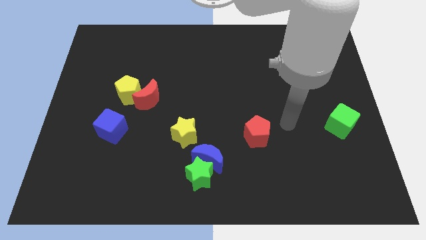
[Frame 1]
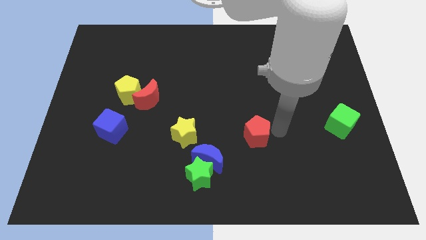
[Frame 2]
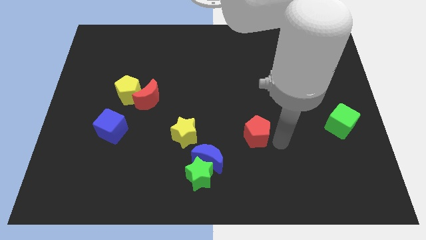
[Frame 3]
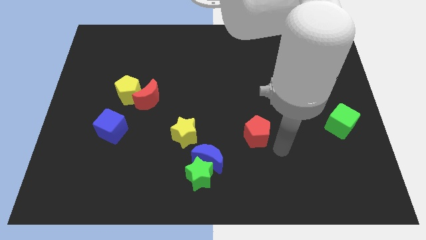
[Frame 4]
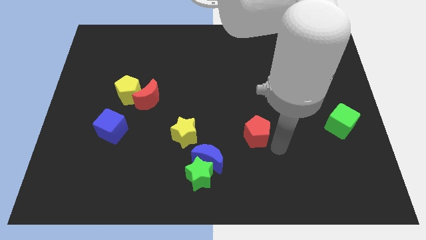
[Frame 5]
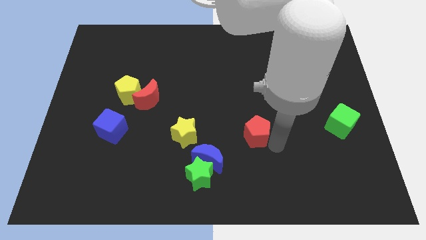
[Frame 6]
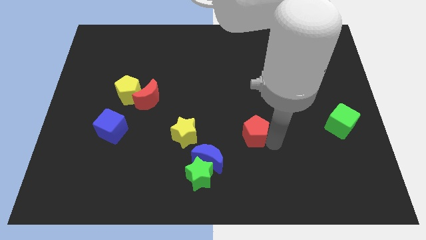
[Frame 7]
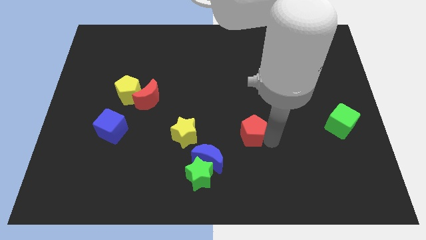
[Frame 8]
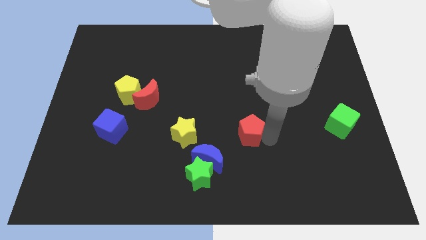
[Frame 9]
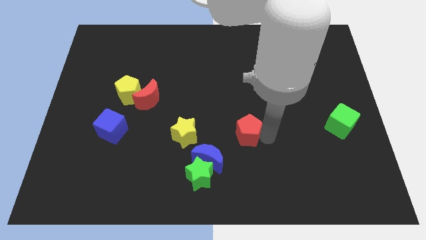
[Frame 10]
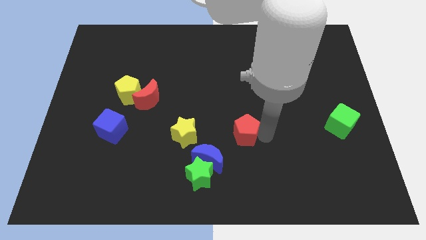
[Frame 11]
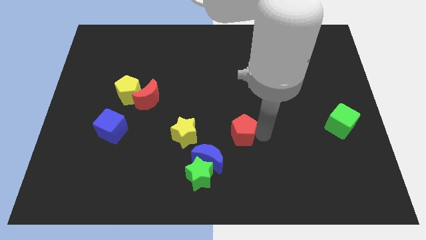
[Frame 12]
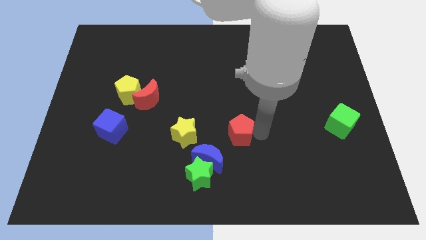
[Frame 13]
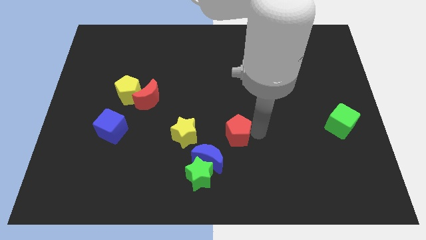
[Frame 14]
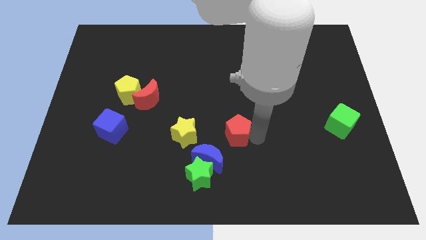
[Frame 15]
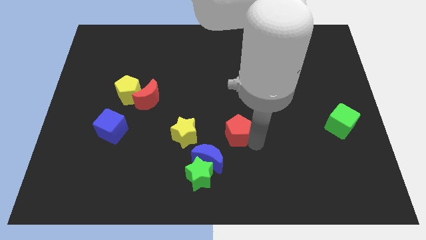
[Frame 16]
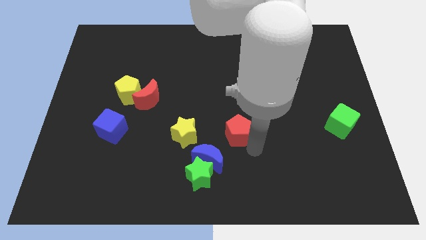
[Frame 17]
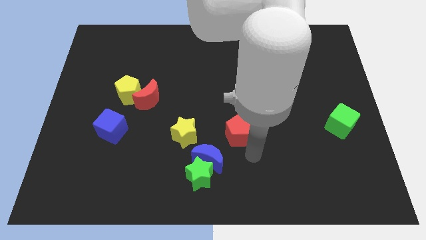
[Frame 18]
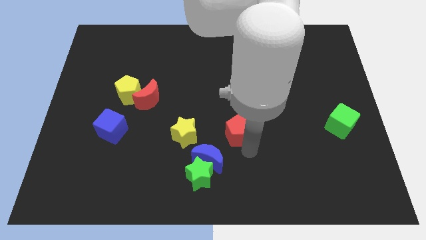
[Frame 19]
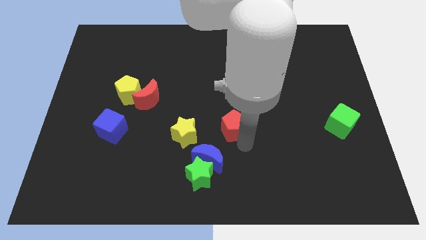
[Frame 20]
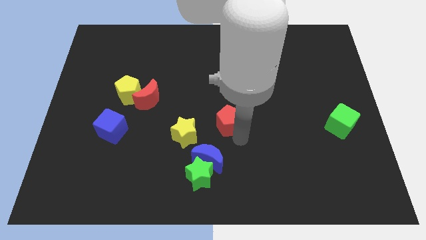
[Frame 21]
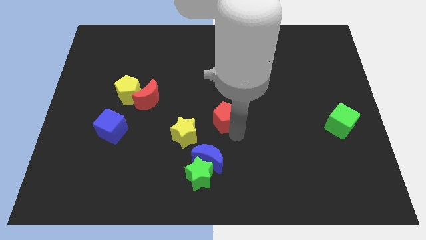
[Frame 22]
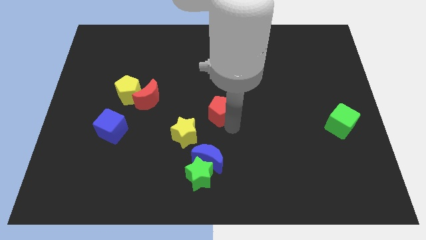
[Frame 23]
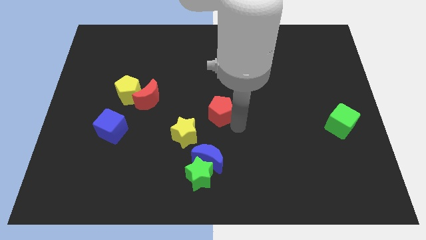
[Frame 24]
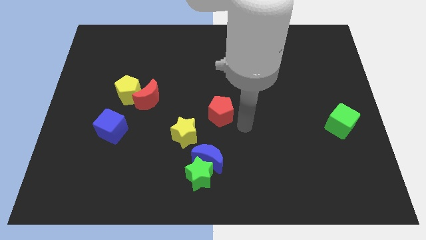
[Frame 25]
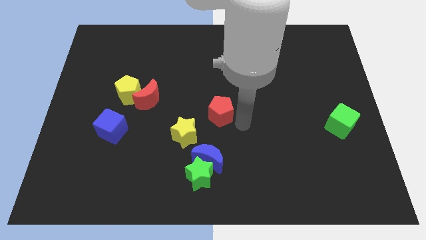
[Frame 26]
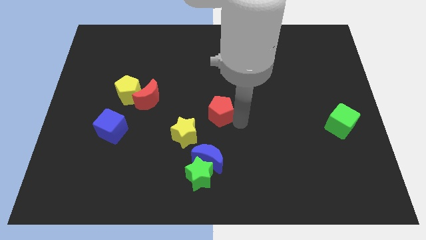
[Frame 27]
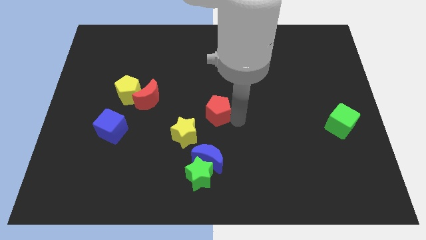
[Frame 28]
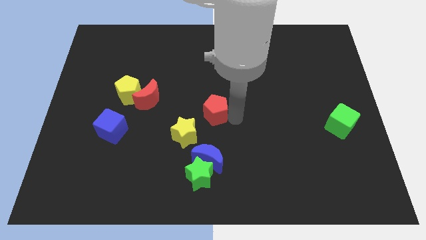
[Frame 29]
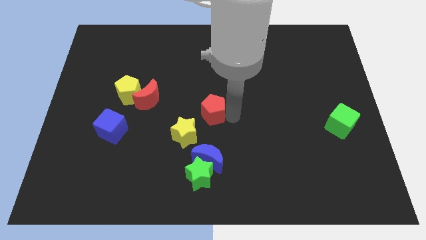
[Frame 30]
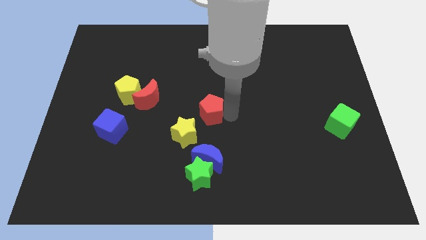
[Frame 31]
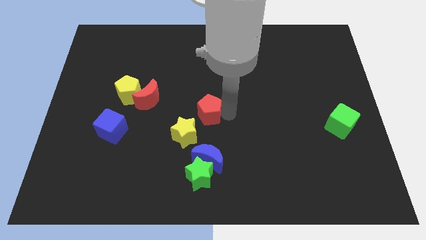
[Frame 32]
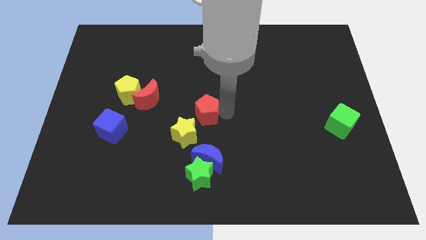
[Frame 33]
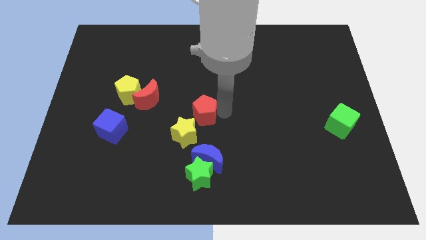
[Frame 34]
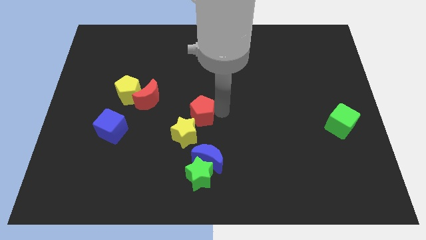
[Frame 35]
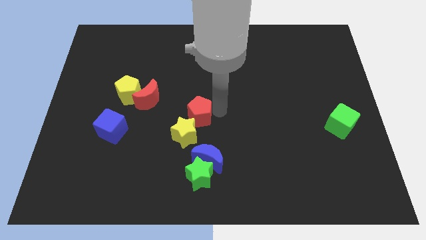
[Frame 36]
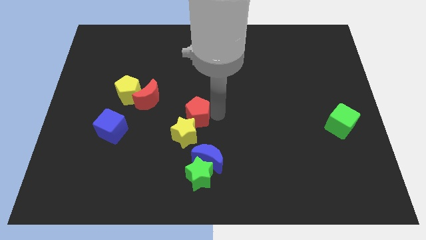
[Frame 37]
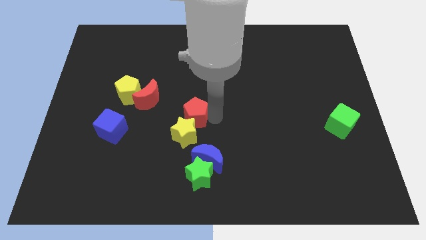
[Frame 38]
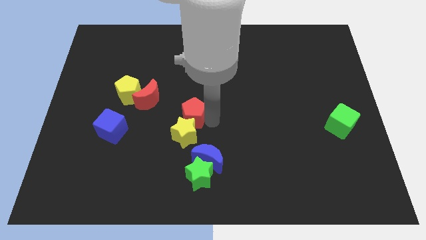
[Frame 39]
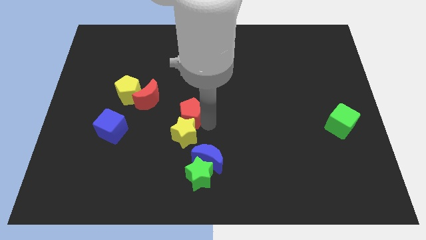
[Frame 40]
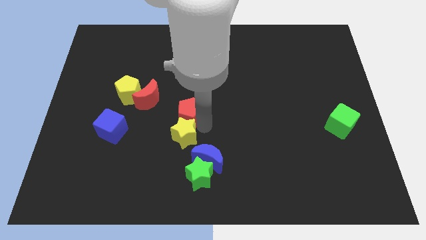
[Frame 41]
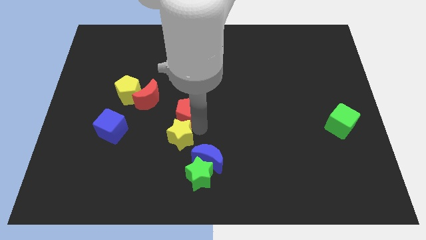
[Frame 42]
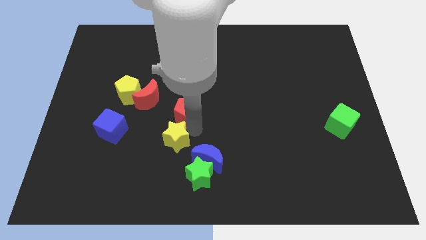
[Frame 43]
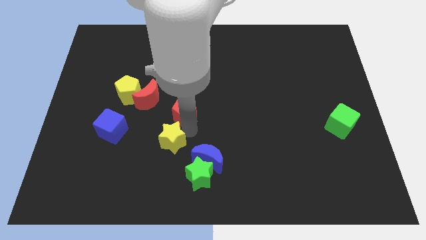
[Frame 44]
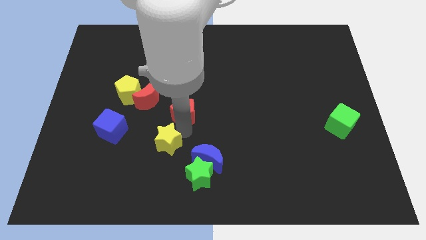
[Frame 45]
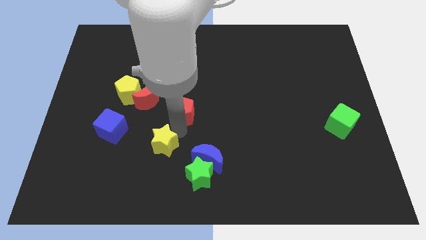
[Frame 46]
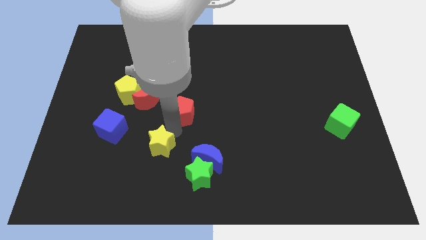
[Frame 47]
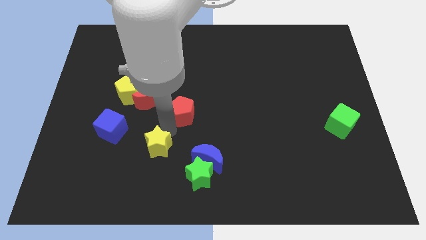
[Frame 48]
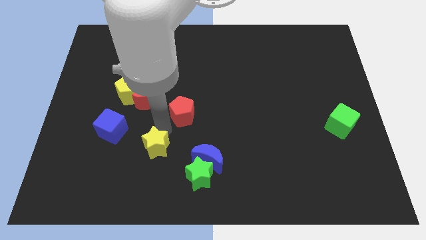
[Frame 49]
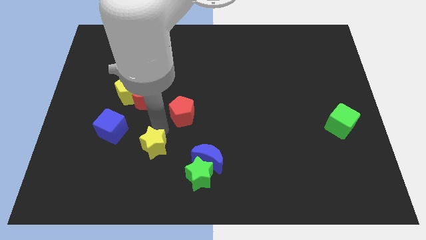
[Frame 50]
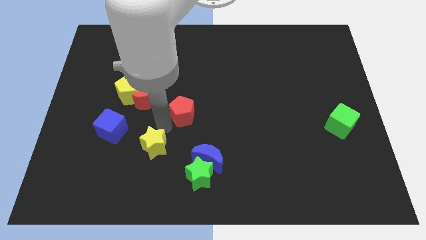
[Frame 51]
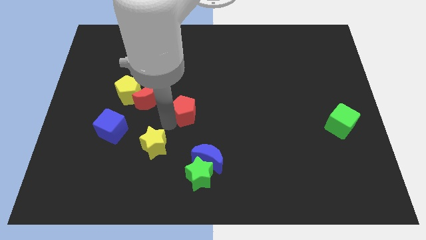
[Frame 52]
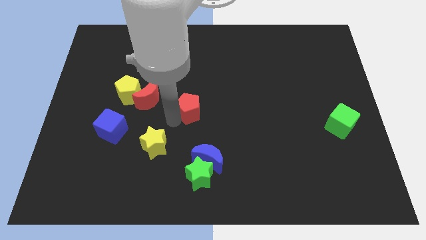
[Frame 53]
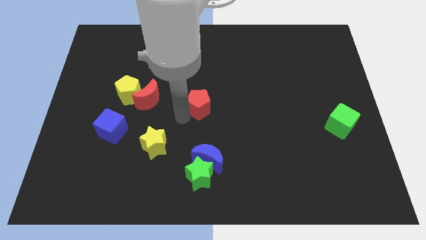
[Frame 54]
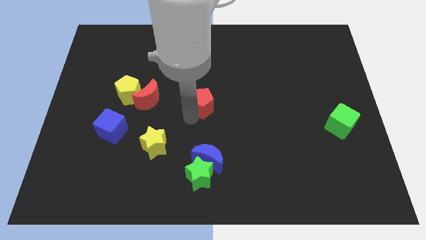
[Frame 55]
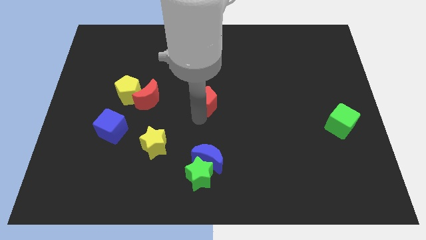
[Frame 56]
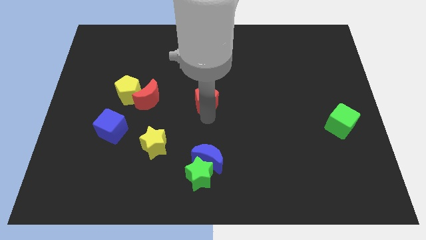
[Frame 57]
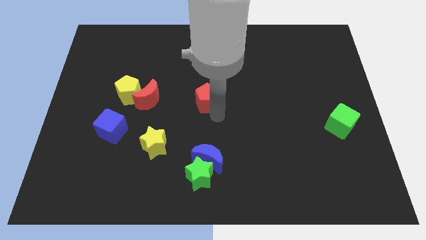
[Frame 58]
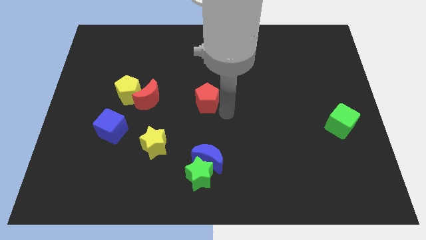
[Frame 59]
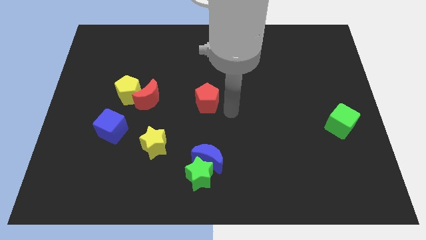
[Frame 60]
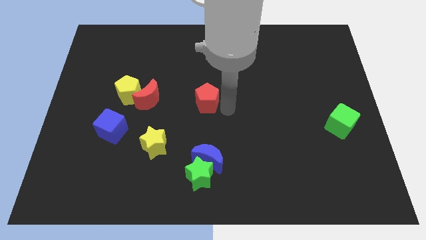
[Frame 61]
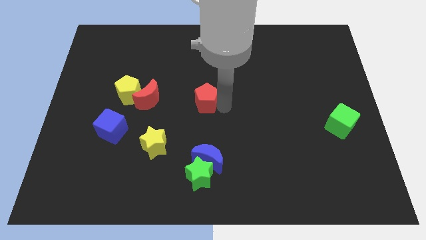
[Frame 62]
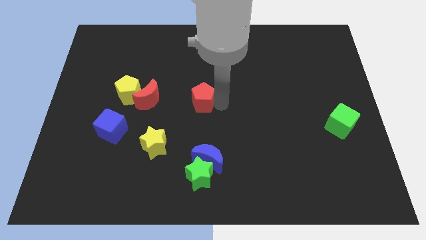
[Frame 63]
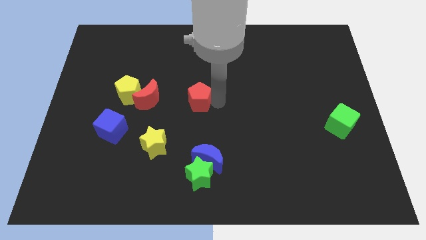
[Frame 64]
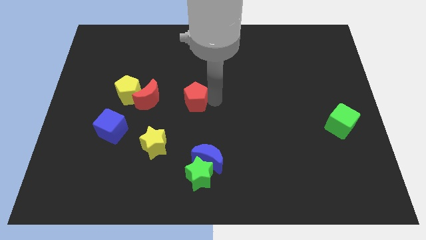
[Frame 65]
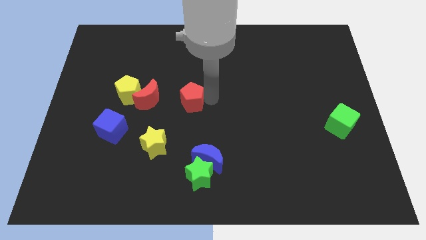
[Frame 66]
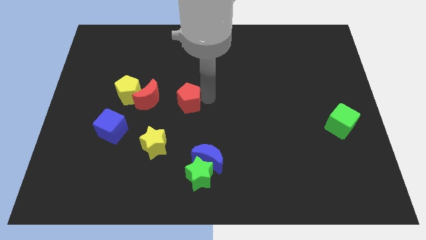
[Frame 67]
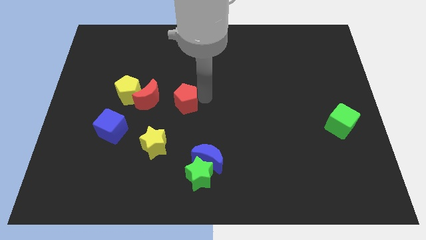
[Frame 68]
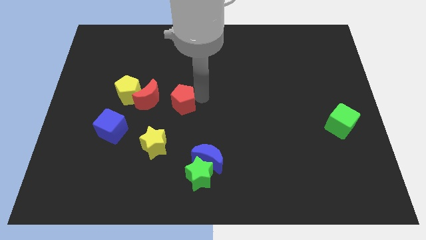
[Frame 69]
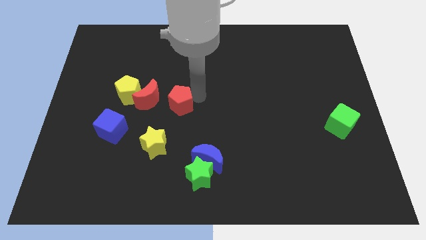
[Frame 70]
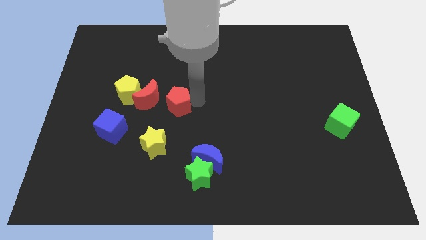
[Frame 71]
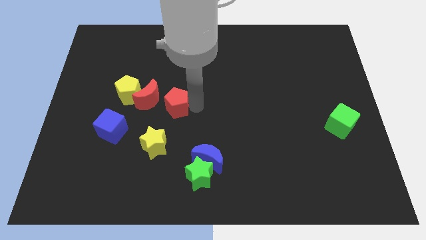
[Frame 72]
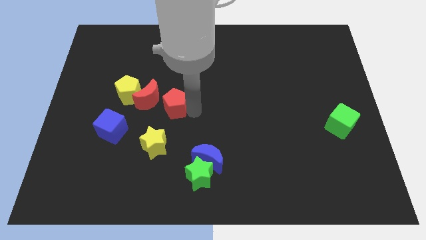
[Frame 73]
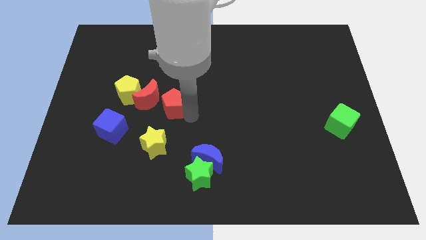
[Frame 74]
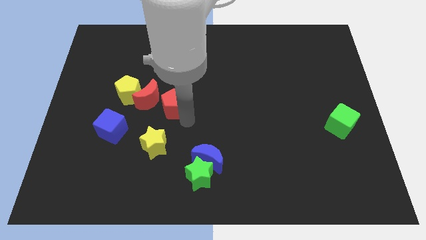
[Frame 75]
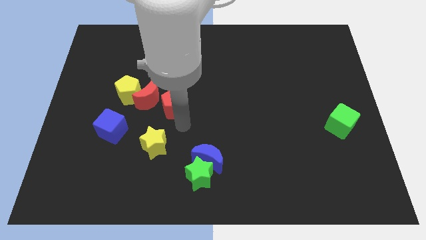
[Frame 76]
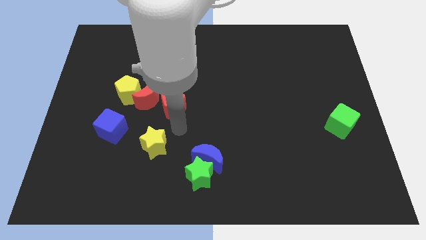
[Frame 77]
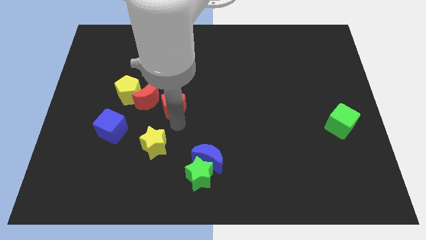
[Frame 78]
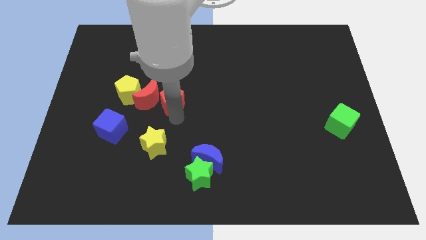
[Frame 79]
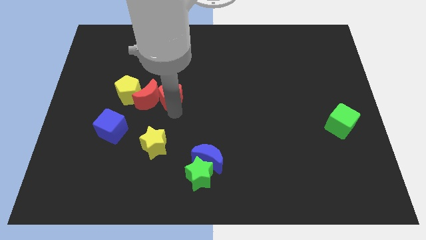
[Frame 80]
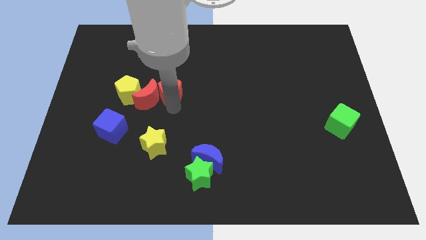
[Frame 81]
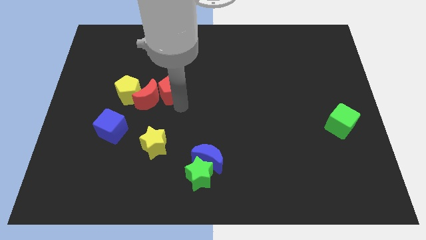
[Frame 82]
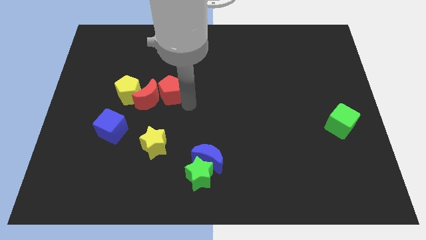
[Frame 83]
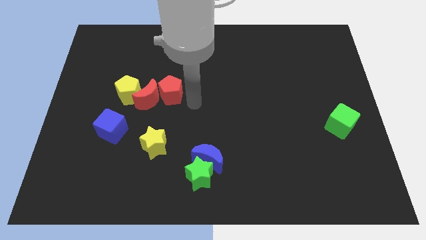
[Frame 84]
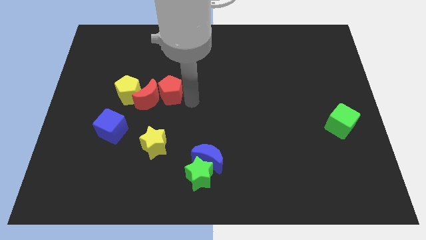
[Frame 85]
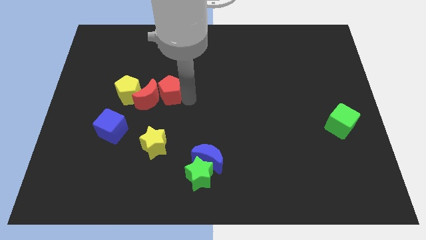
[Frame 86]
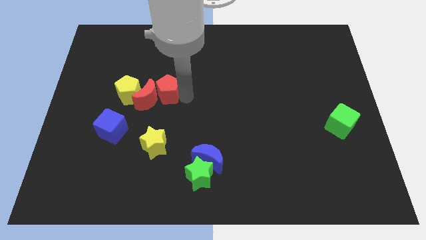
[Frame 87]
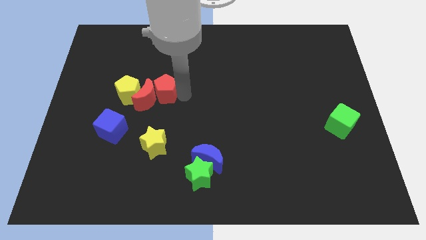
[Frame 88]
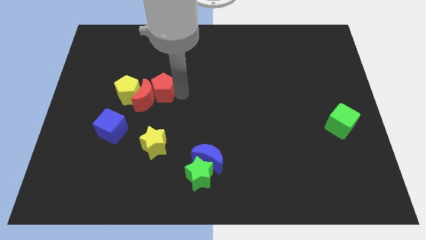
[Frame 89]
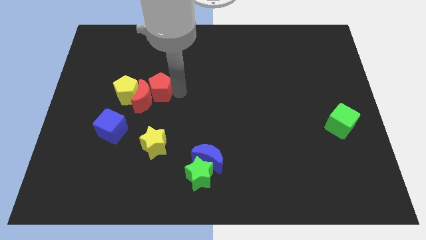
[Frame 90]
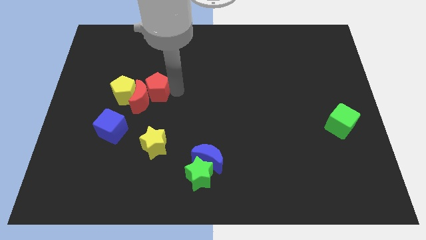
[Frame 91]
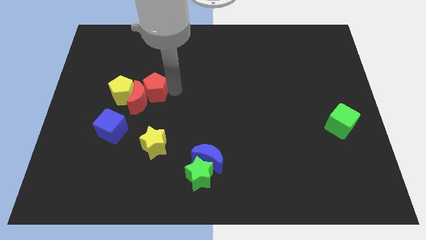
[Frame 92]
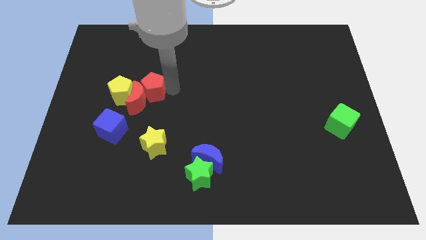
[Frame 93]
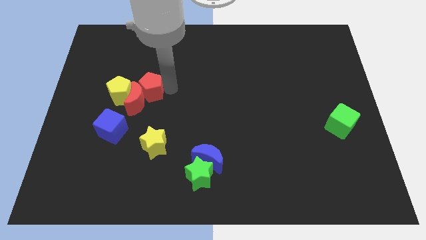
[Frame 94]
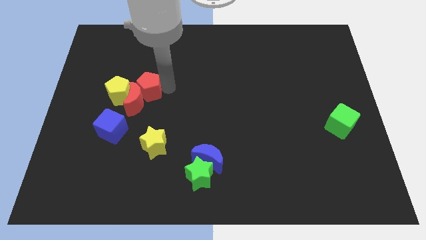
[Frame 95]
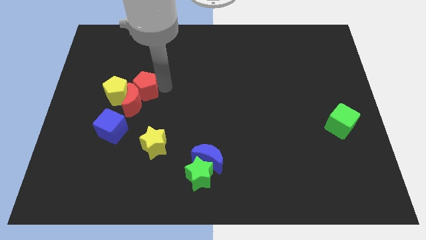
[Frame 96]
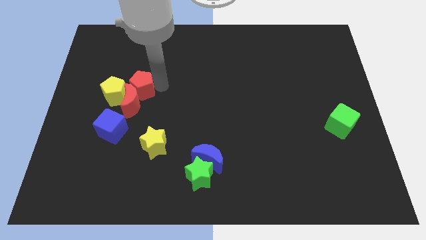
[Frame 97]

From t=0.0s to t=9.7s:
push the red pentagon to the top left of the red moon
